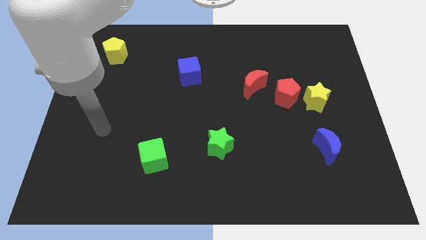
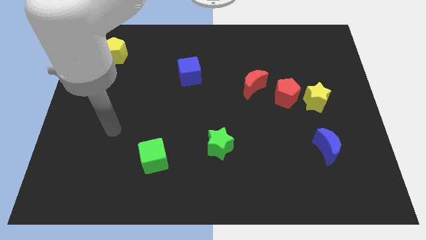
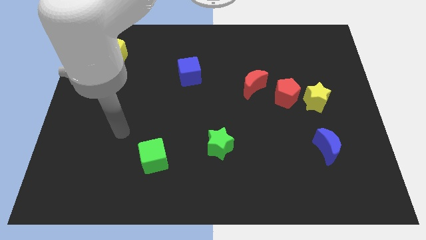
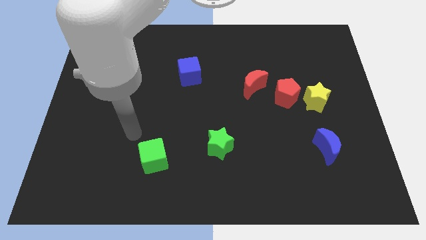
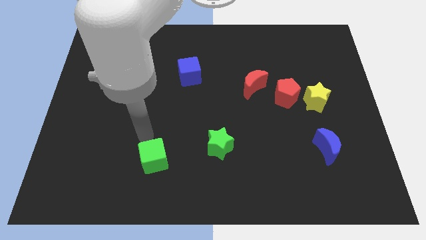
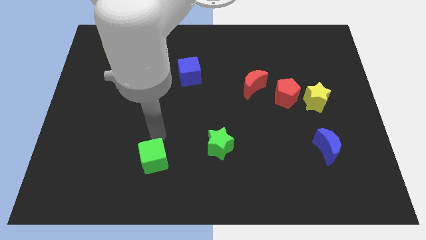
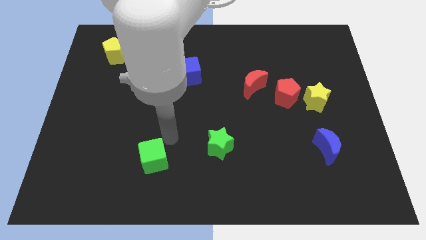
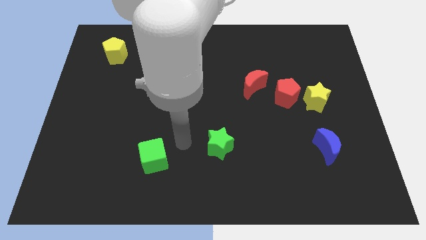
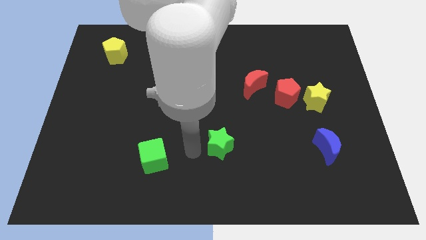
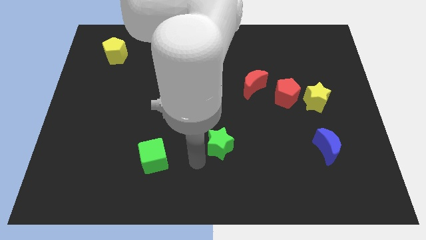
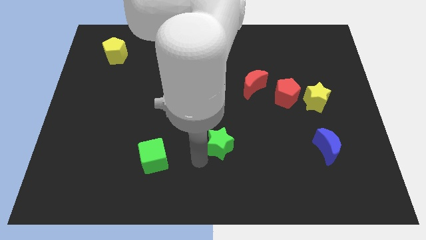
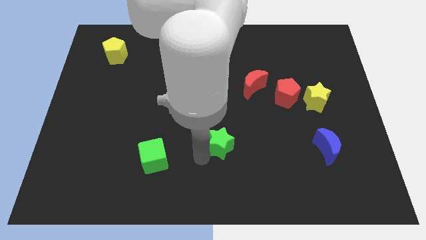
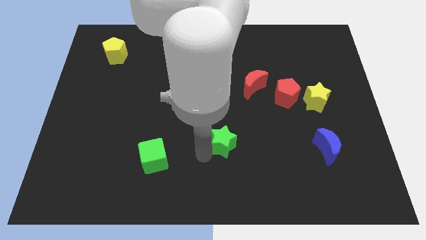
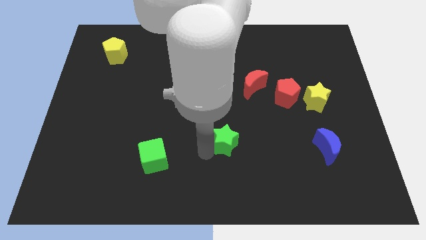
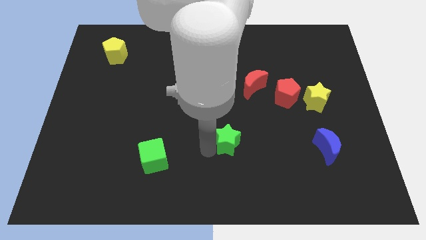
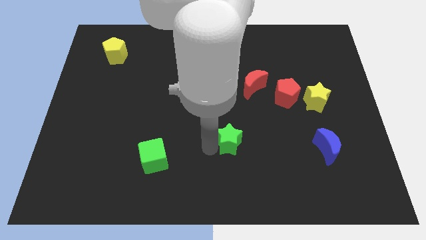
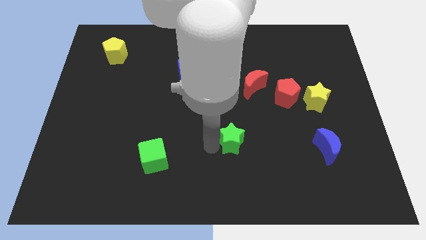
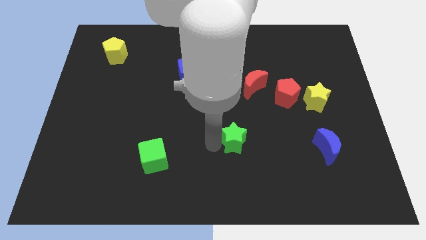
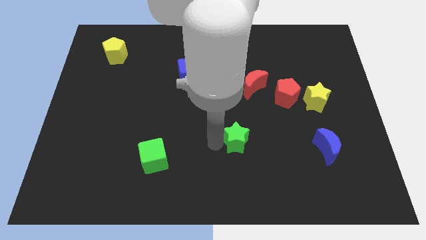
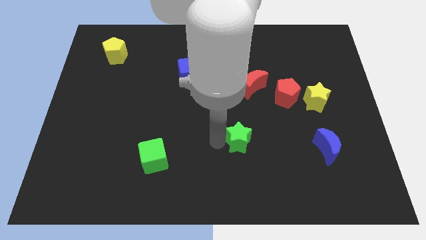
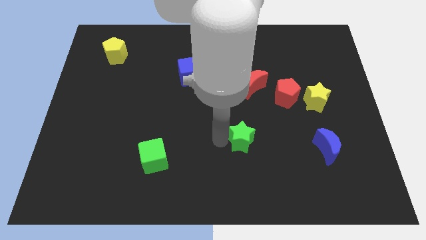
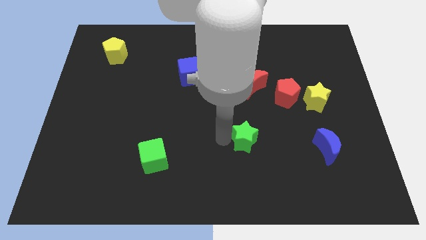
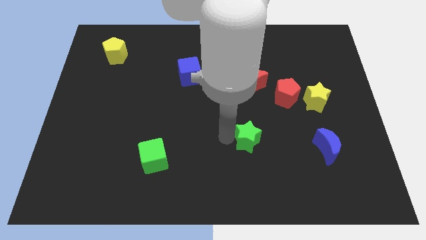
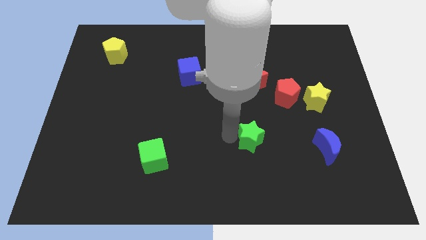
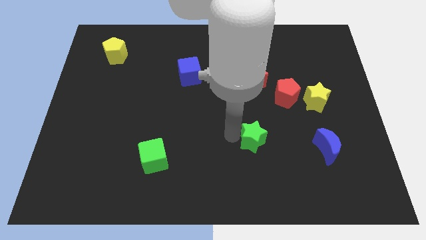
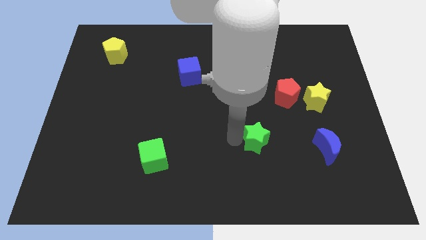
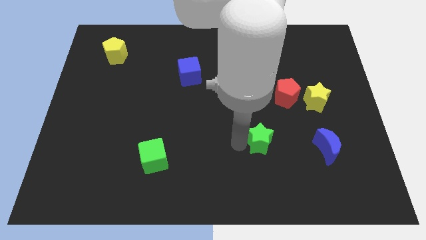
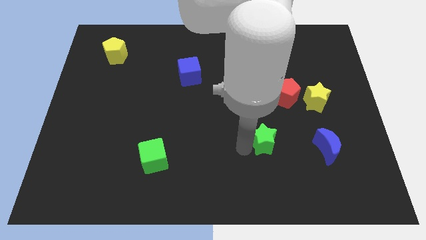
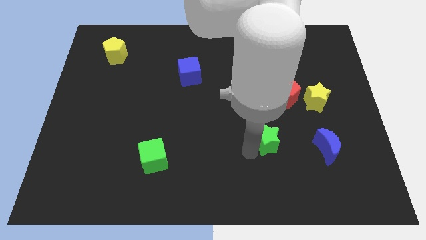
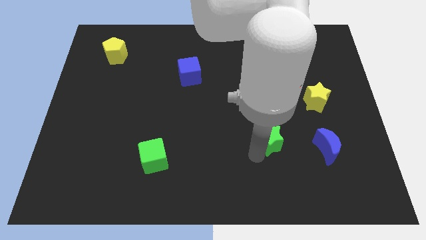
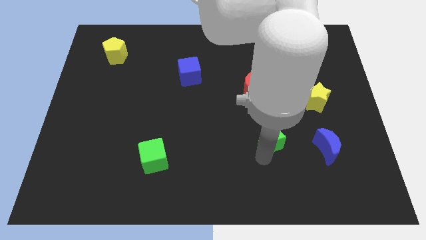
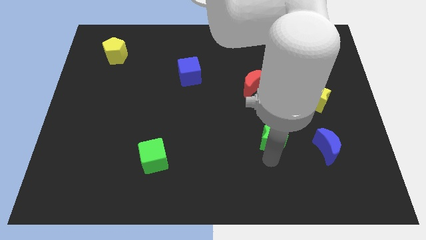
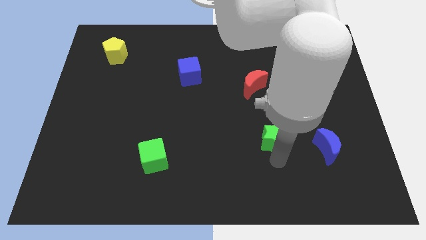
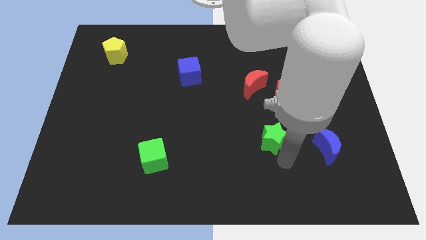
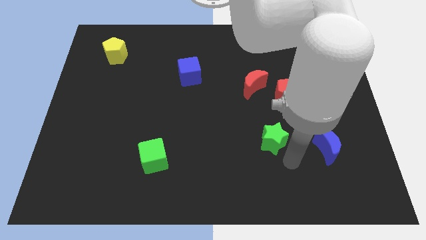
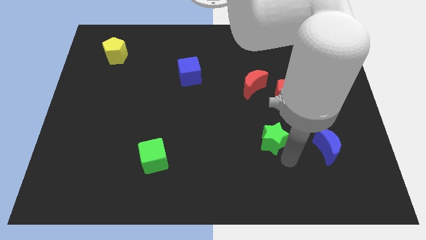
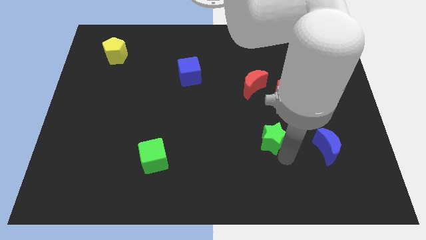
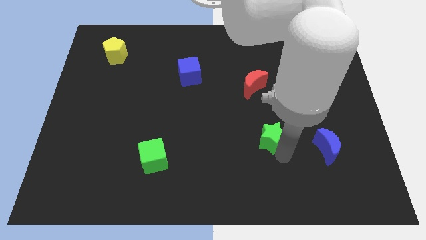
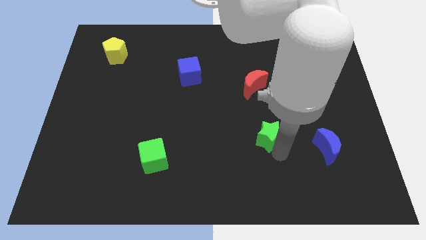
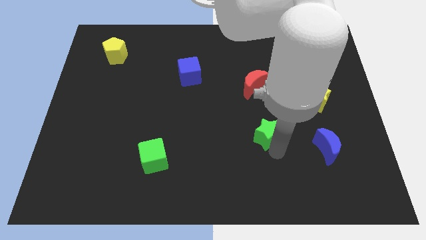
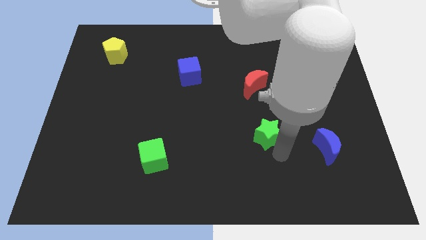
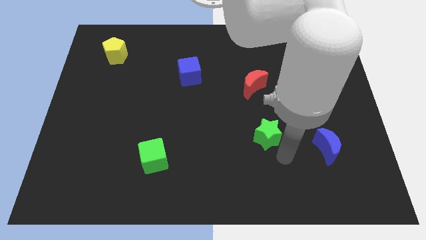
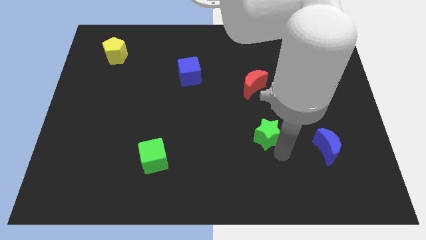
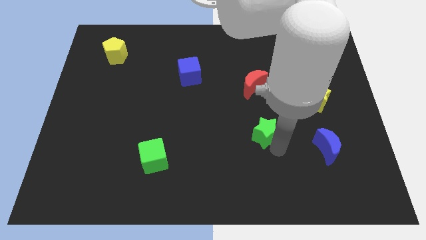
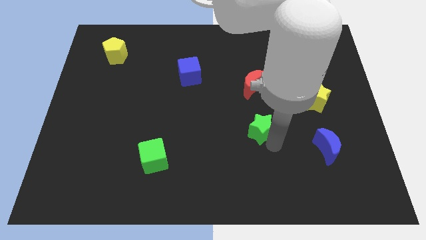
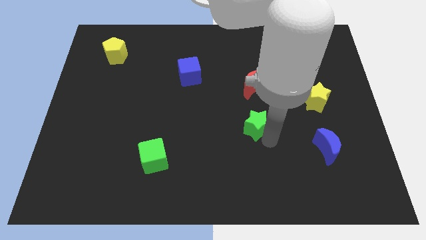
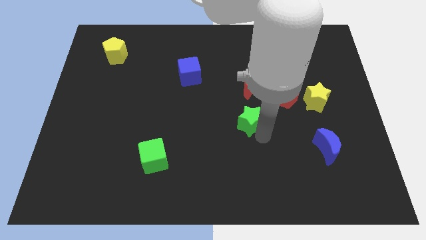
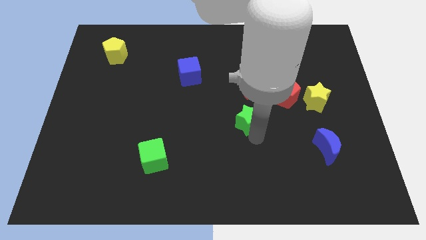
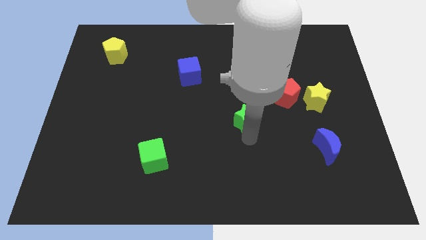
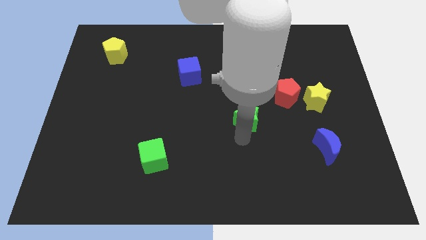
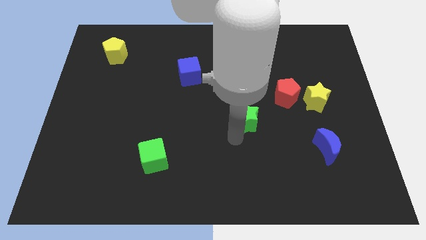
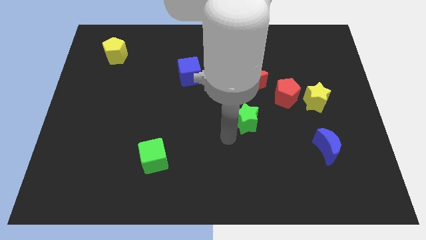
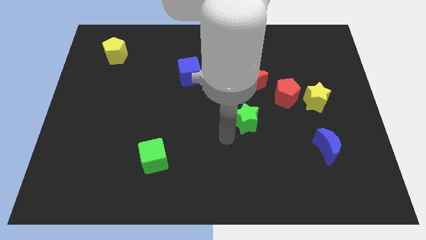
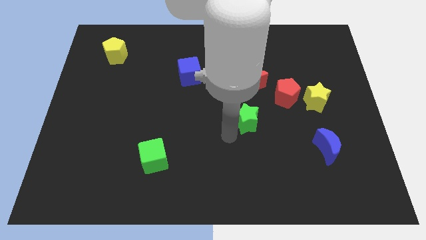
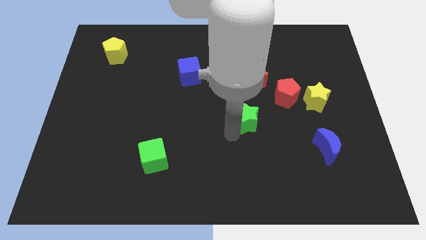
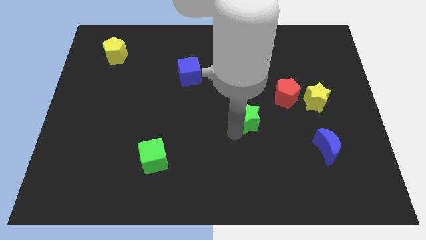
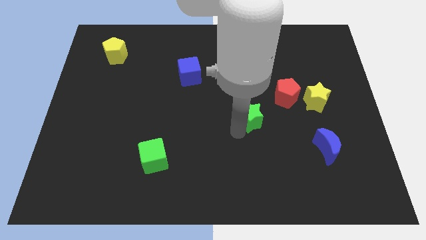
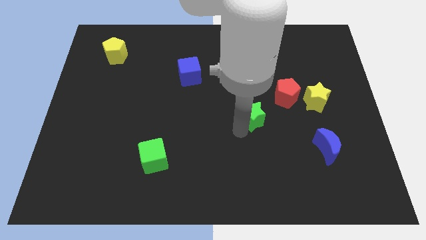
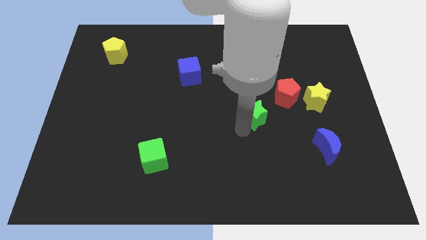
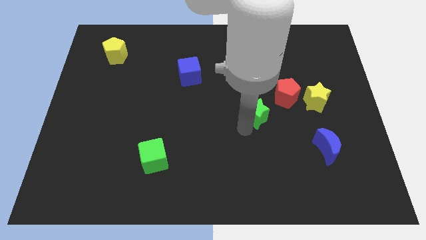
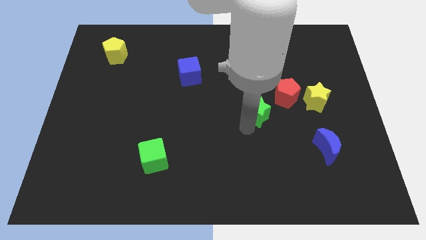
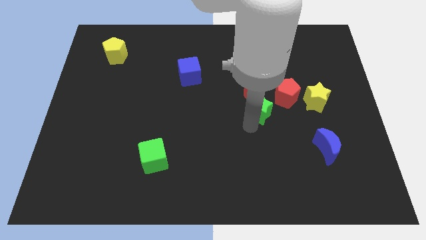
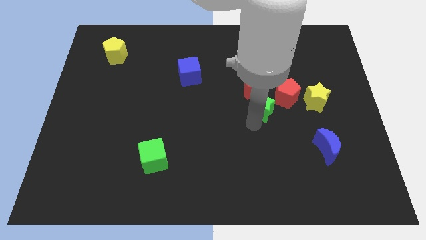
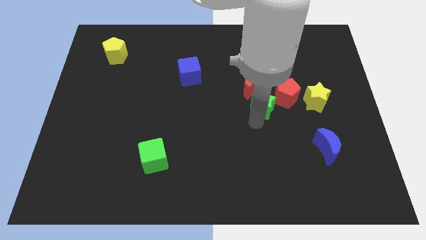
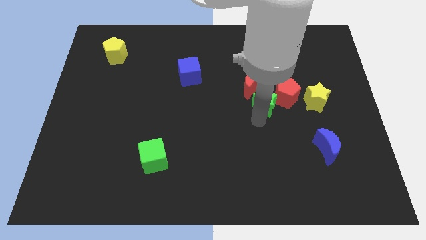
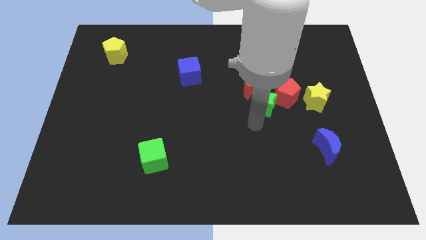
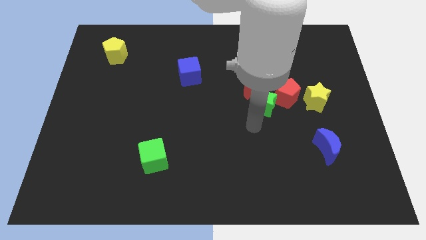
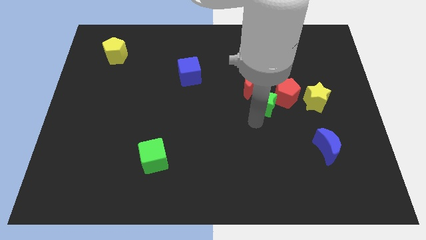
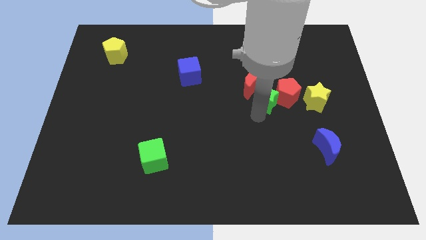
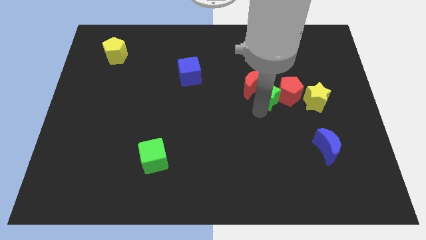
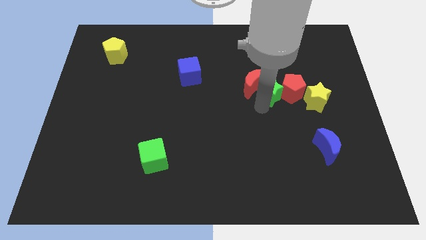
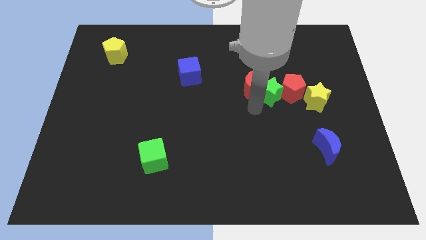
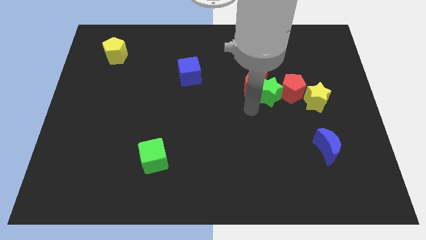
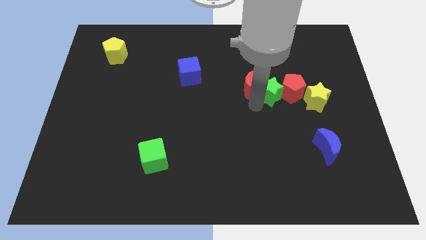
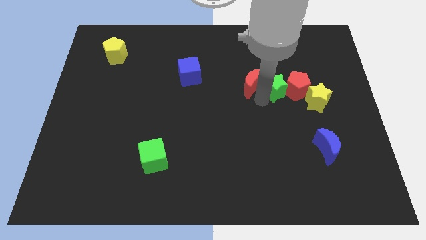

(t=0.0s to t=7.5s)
slide the green star diagonally up and to the right

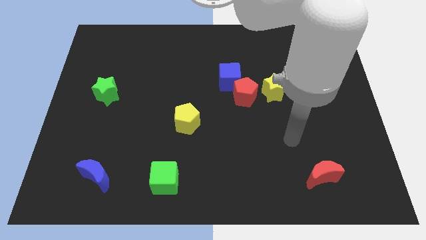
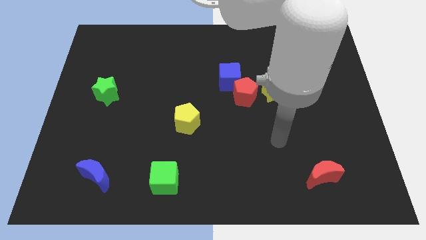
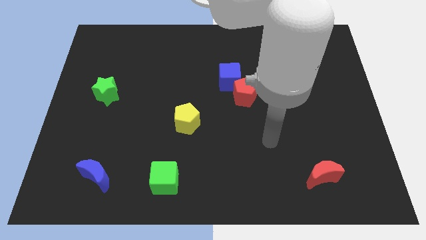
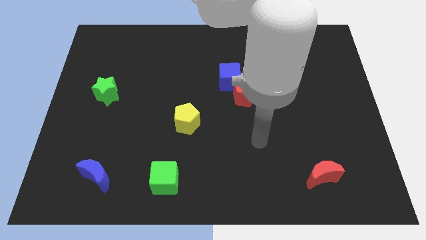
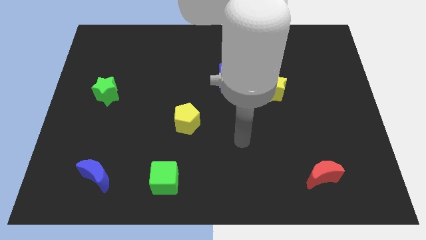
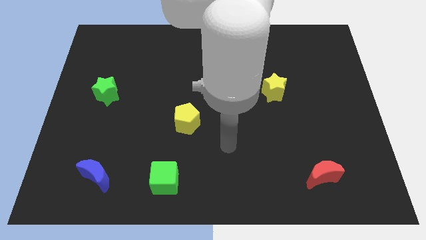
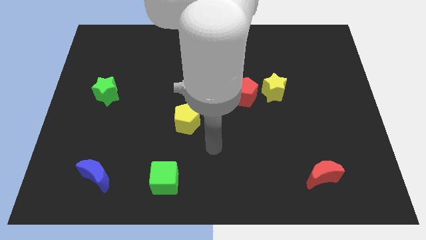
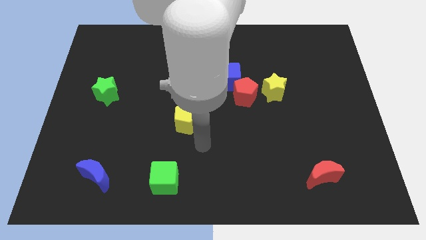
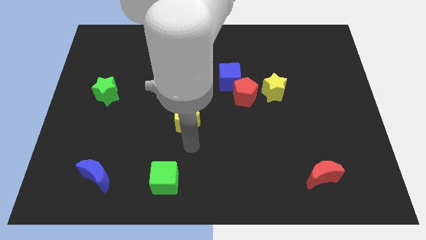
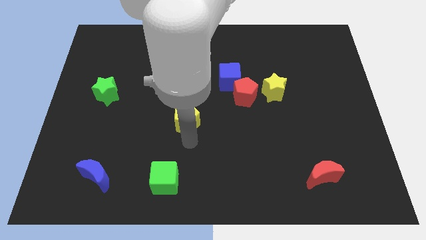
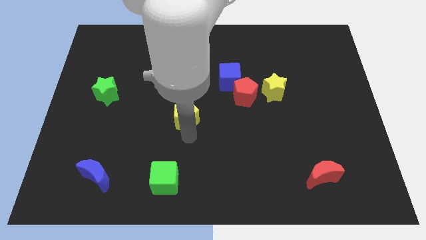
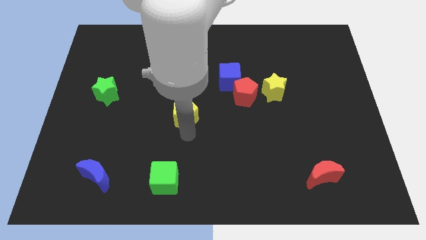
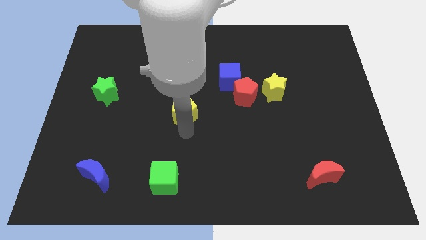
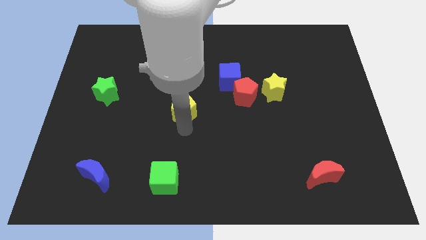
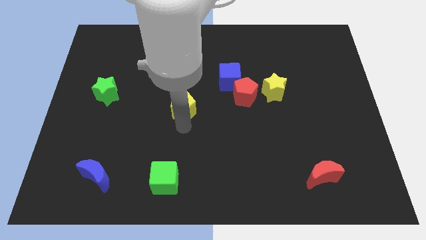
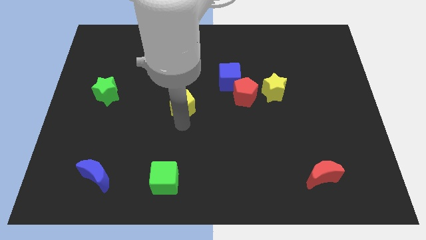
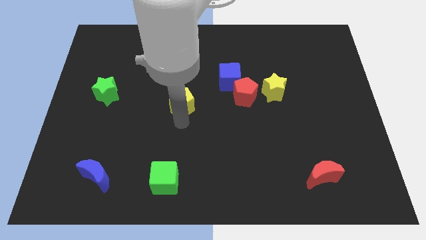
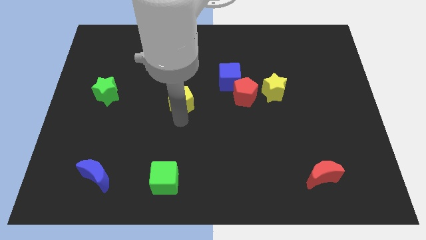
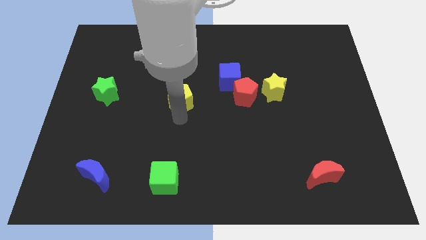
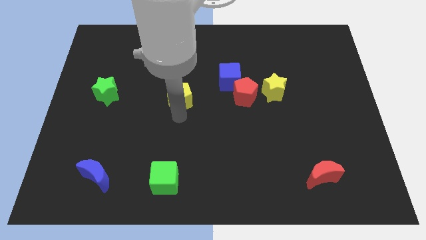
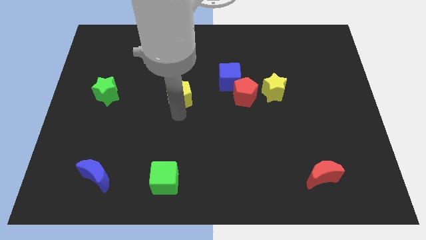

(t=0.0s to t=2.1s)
slightly move the yellow pentagon upwards
